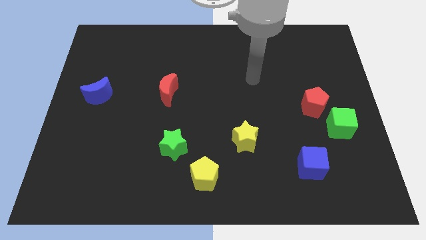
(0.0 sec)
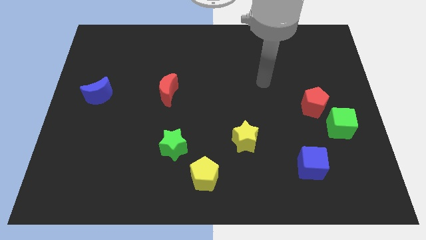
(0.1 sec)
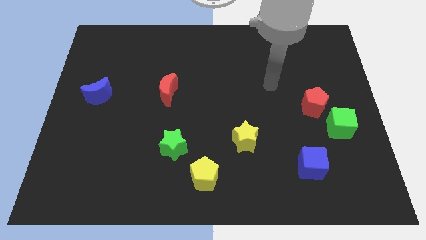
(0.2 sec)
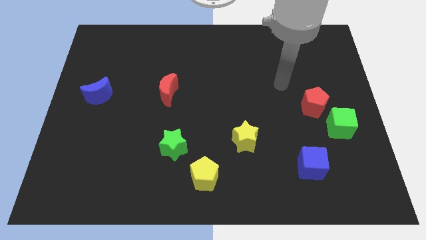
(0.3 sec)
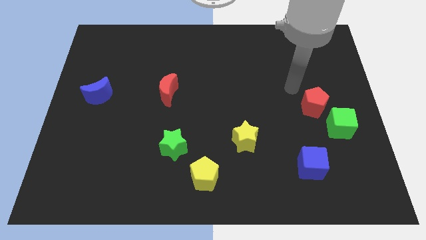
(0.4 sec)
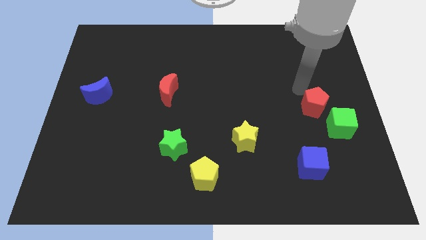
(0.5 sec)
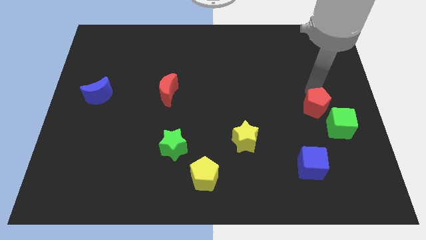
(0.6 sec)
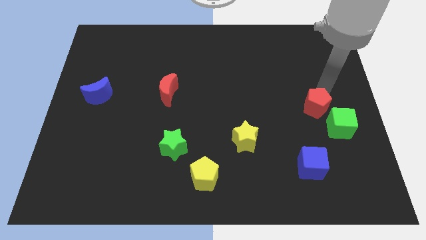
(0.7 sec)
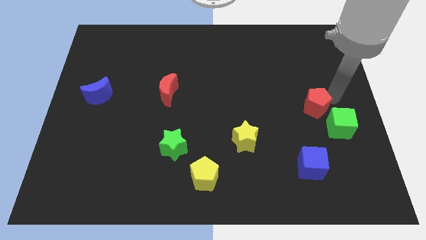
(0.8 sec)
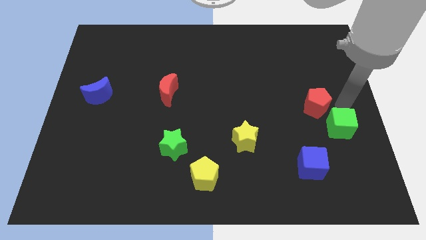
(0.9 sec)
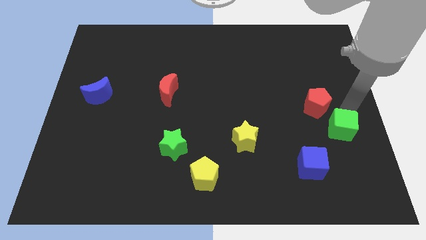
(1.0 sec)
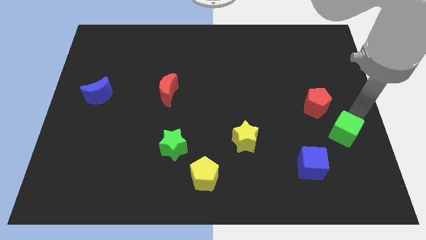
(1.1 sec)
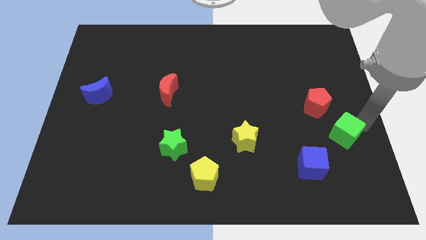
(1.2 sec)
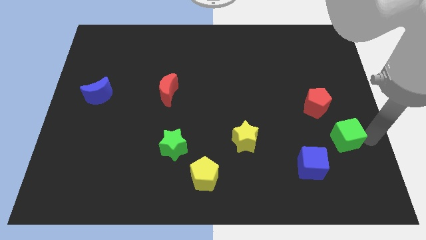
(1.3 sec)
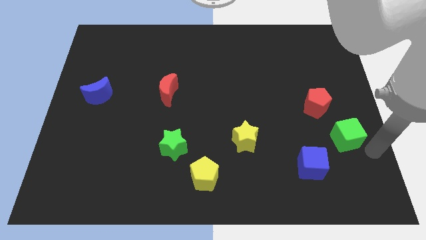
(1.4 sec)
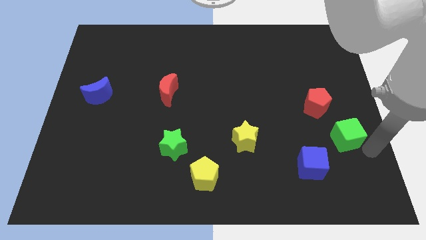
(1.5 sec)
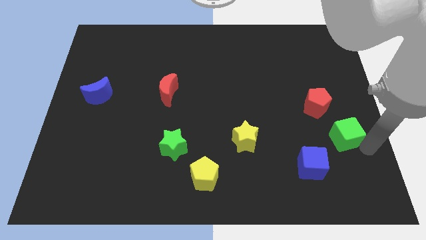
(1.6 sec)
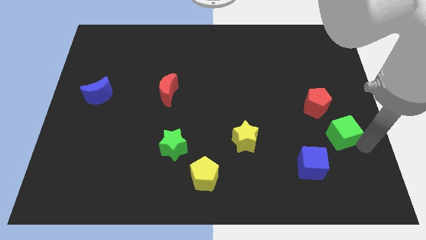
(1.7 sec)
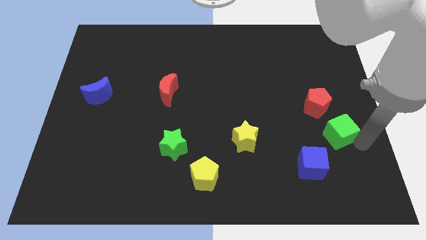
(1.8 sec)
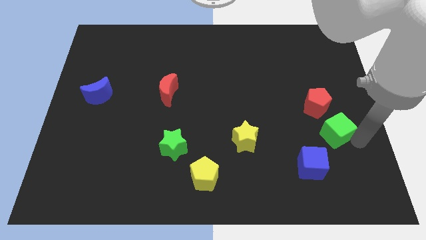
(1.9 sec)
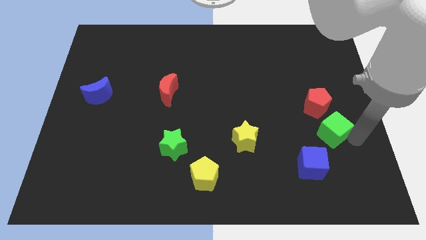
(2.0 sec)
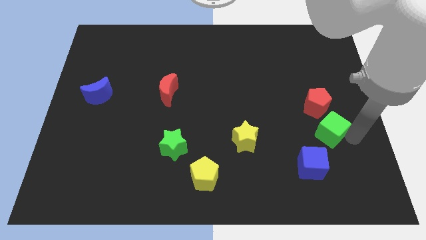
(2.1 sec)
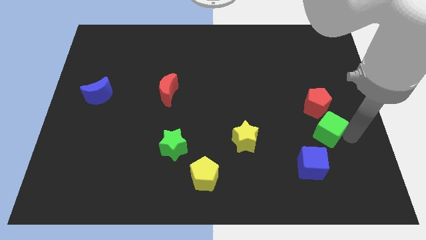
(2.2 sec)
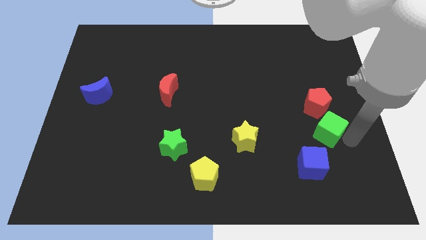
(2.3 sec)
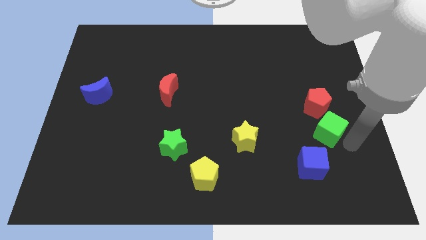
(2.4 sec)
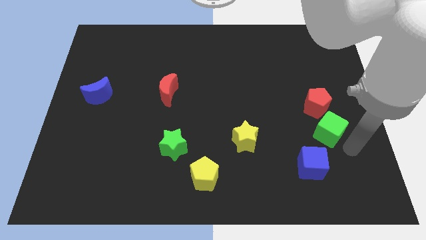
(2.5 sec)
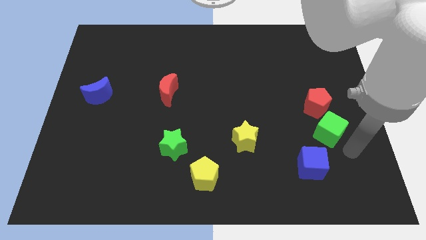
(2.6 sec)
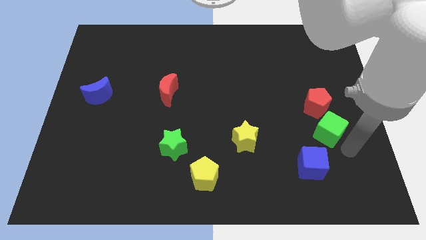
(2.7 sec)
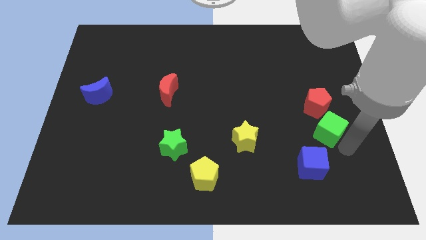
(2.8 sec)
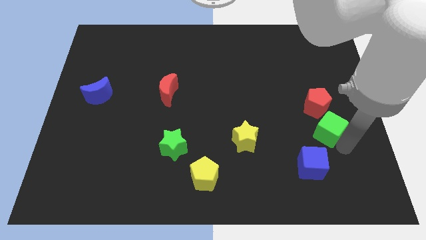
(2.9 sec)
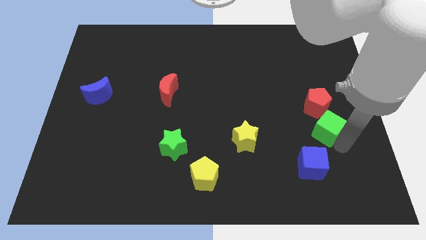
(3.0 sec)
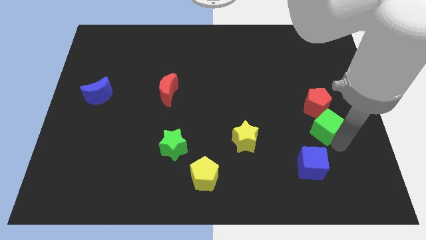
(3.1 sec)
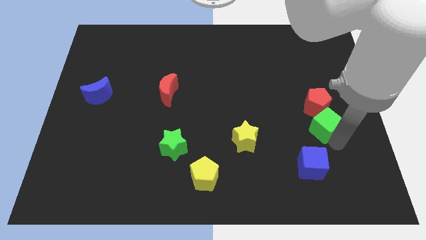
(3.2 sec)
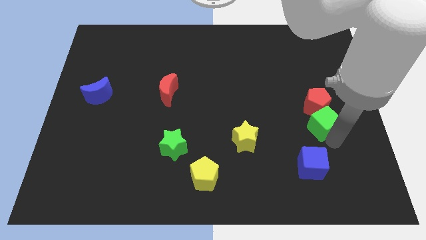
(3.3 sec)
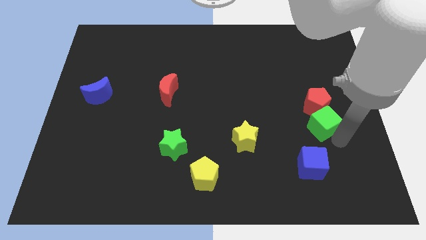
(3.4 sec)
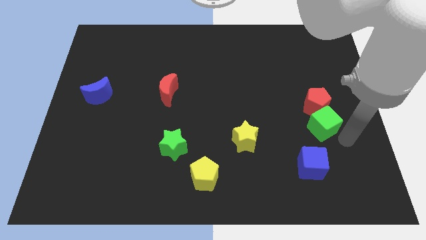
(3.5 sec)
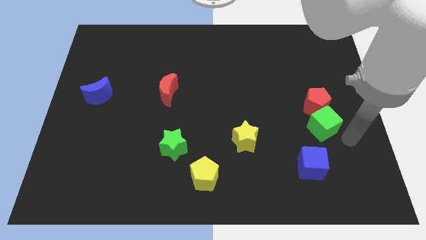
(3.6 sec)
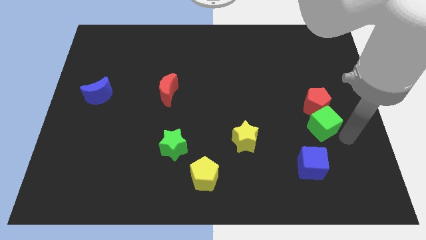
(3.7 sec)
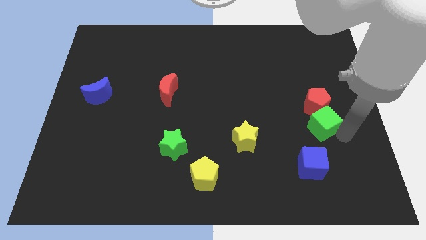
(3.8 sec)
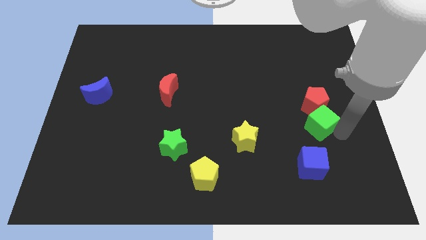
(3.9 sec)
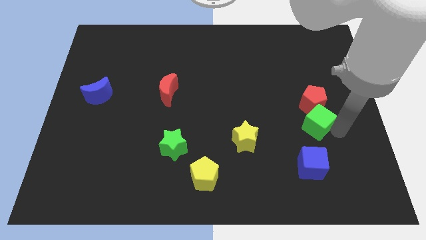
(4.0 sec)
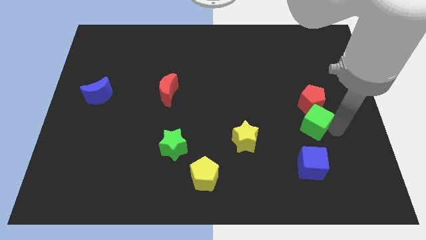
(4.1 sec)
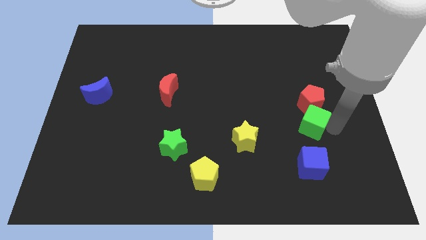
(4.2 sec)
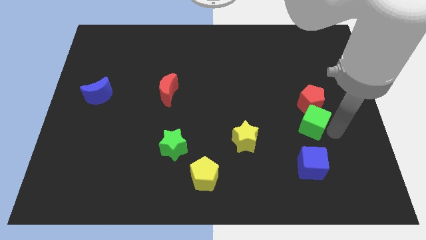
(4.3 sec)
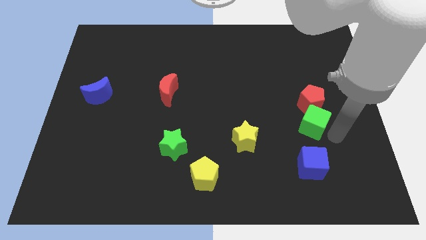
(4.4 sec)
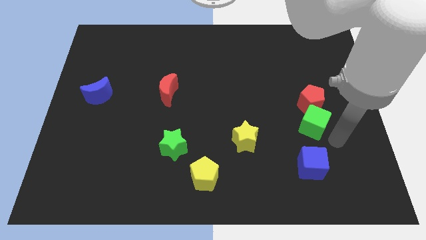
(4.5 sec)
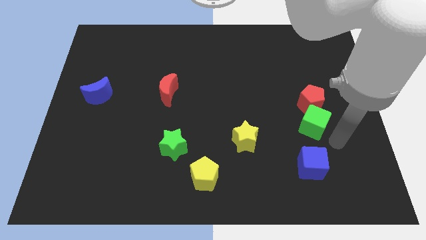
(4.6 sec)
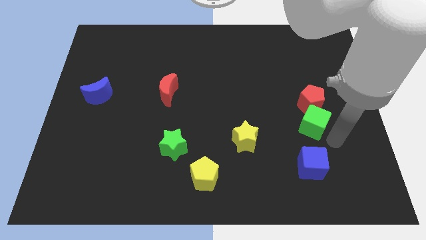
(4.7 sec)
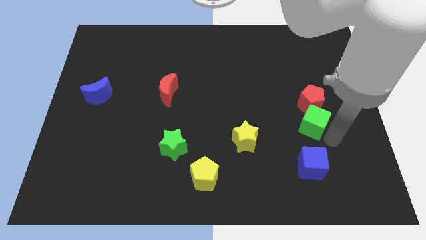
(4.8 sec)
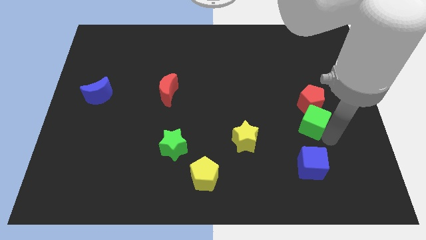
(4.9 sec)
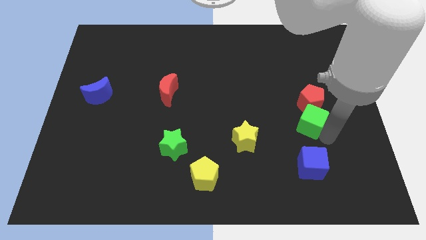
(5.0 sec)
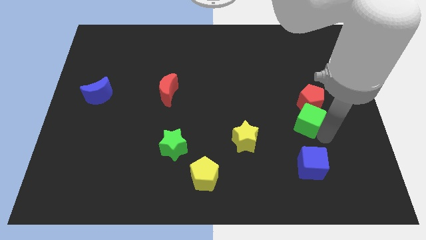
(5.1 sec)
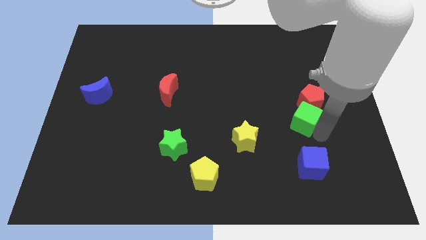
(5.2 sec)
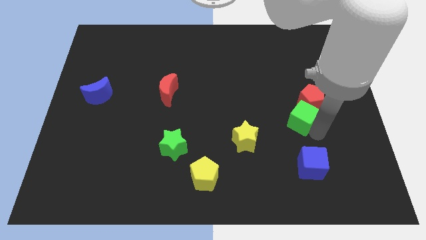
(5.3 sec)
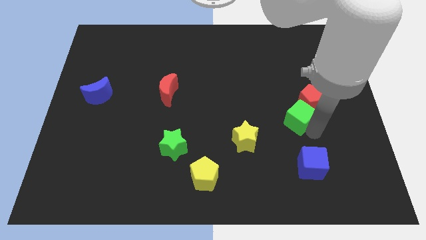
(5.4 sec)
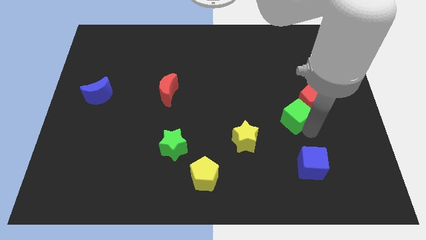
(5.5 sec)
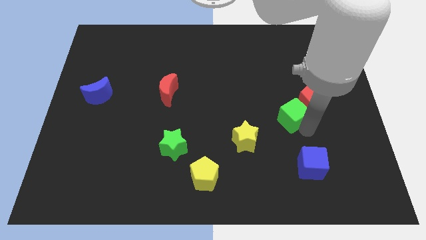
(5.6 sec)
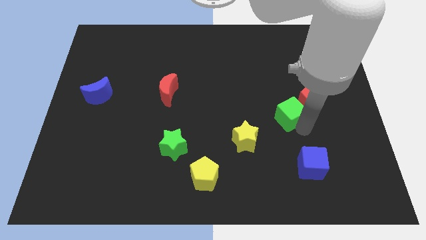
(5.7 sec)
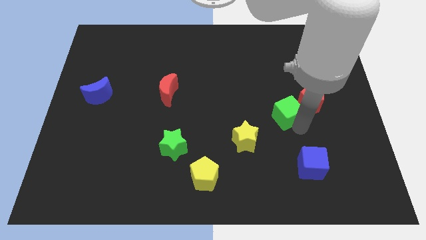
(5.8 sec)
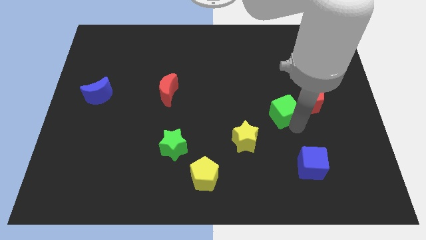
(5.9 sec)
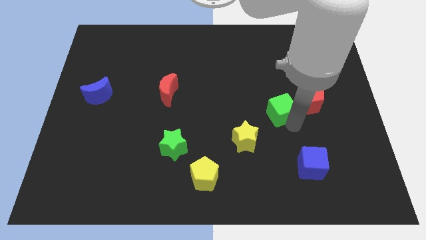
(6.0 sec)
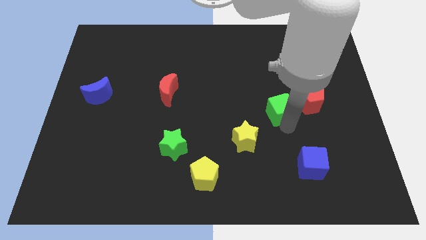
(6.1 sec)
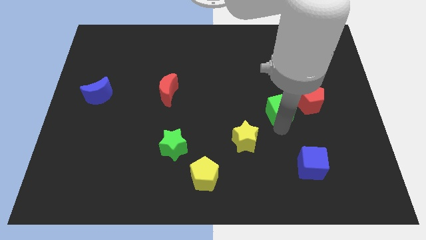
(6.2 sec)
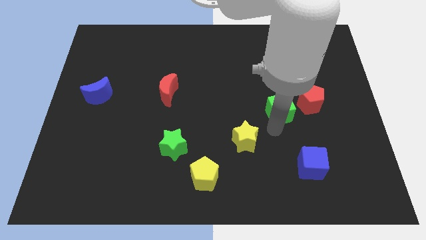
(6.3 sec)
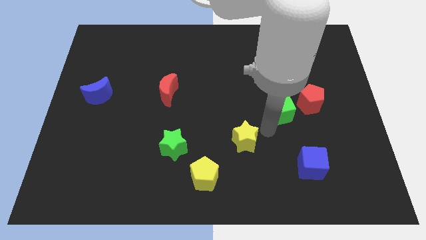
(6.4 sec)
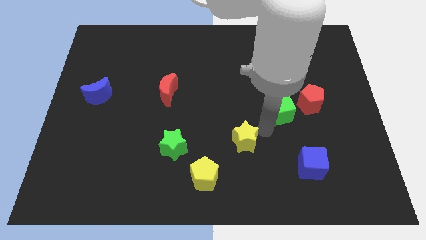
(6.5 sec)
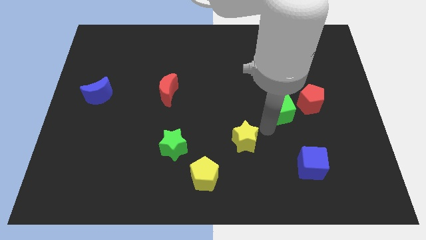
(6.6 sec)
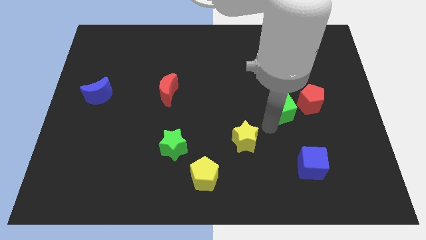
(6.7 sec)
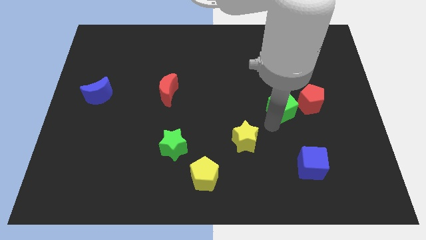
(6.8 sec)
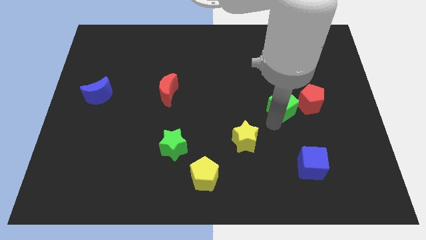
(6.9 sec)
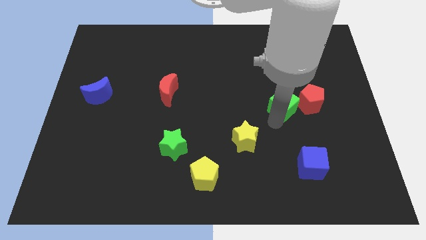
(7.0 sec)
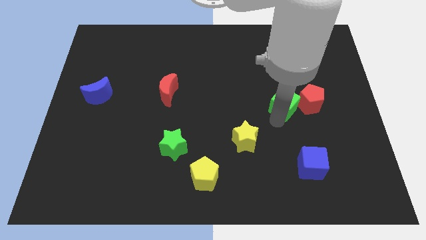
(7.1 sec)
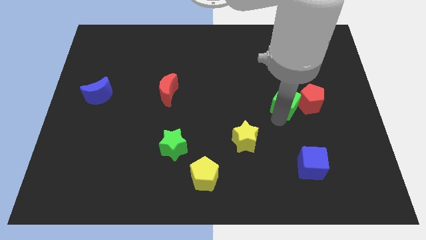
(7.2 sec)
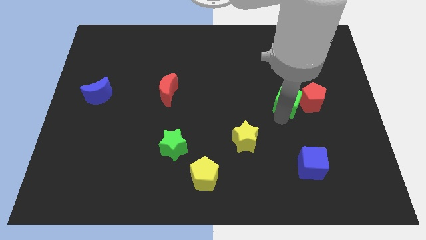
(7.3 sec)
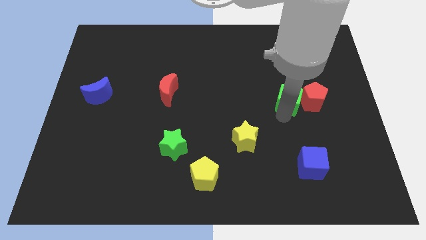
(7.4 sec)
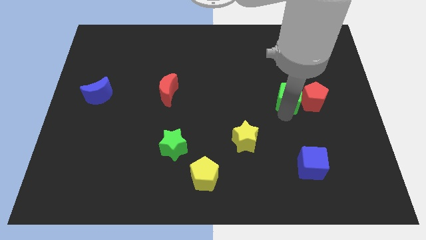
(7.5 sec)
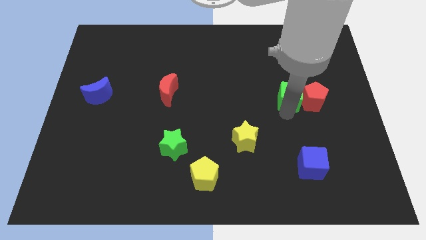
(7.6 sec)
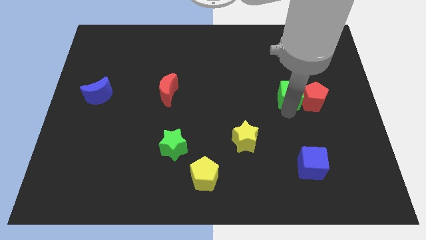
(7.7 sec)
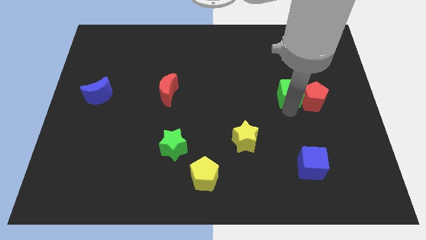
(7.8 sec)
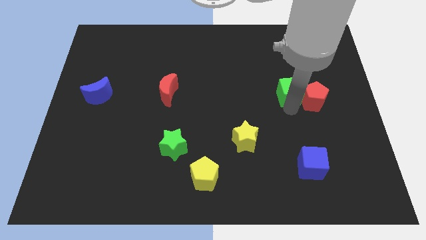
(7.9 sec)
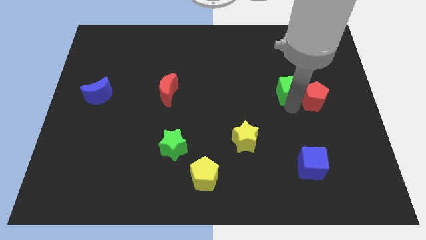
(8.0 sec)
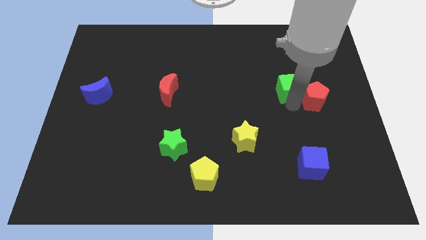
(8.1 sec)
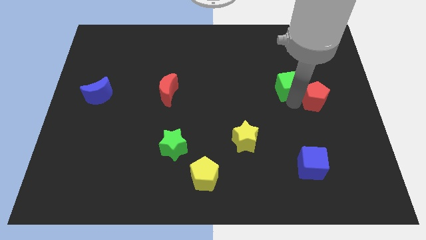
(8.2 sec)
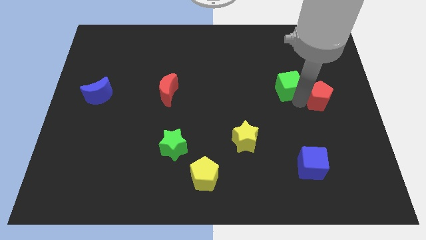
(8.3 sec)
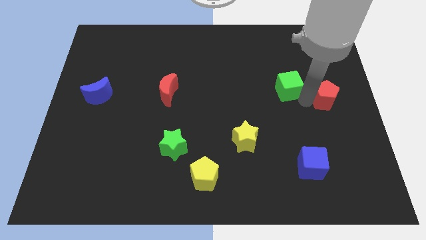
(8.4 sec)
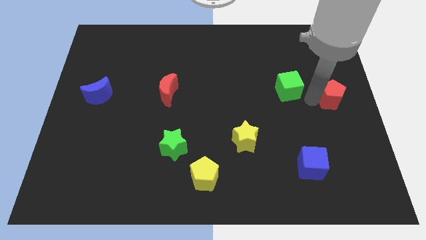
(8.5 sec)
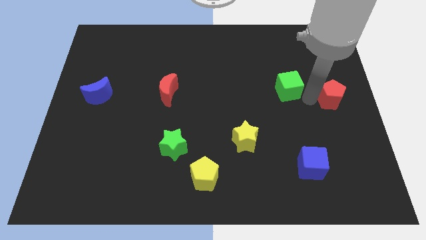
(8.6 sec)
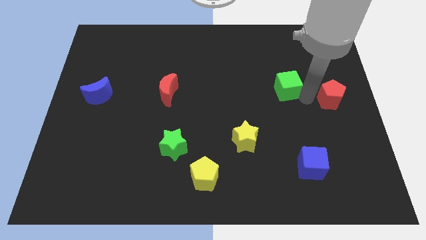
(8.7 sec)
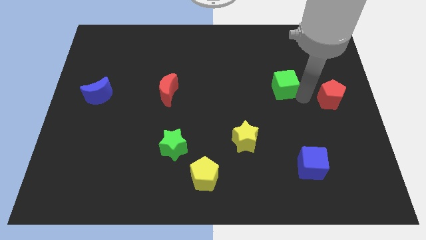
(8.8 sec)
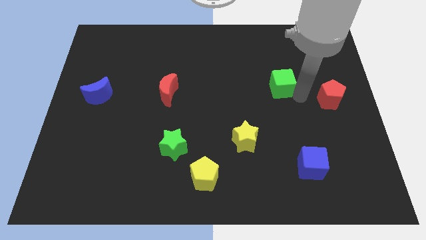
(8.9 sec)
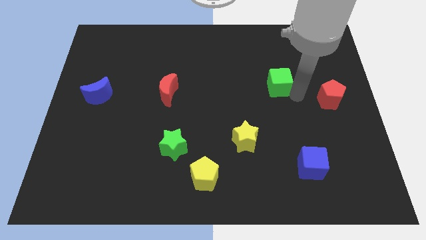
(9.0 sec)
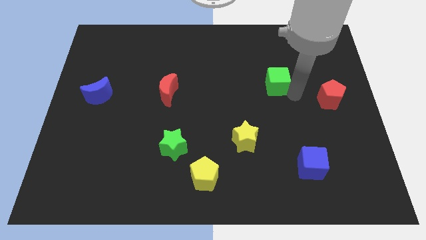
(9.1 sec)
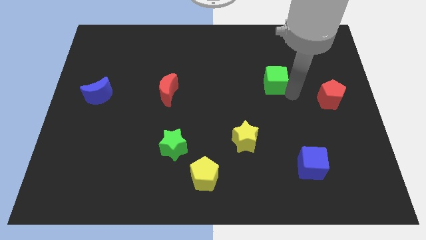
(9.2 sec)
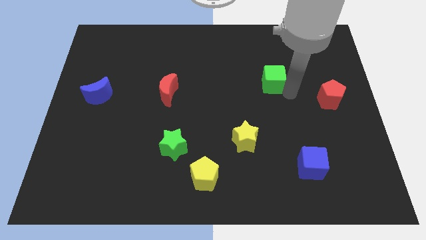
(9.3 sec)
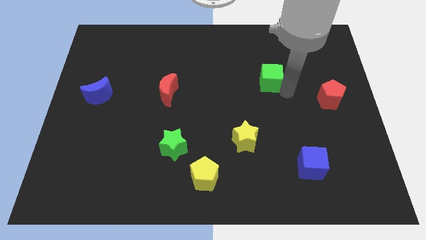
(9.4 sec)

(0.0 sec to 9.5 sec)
slide the green cube upwards and to the left diagonally
